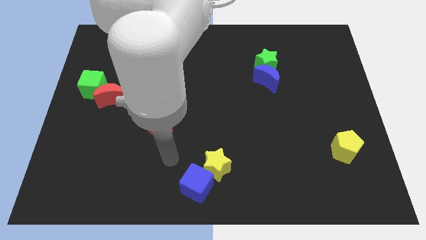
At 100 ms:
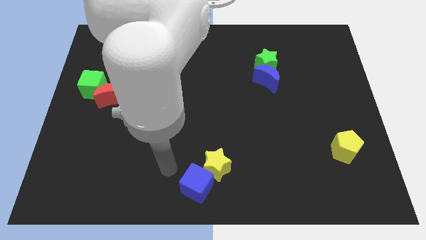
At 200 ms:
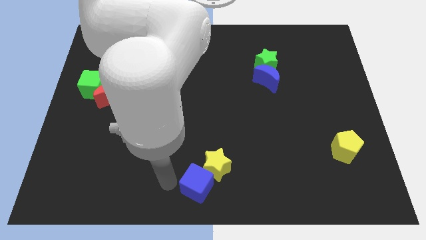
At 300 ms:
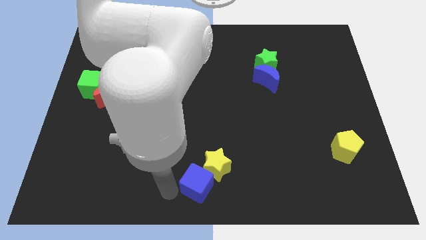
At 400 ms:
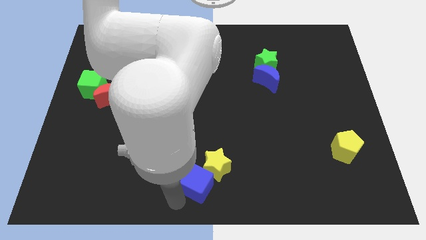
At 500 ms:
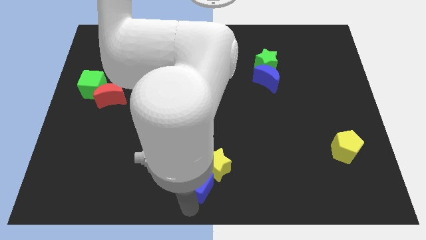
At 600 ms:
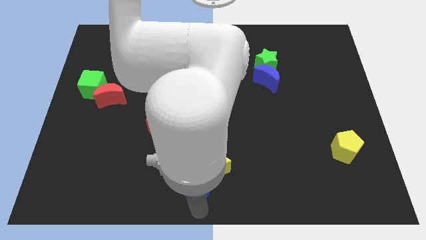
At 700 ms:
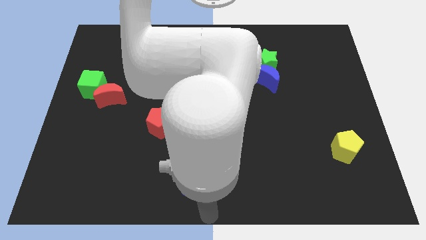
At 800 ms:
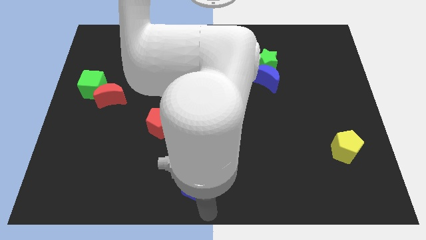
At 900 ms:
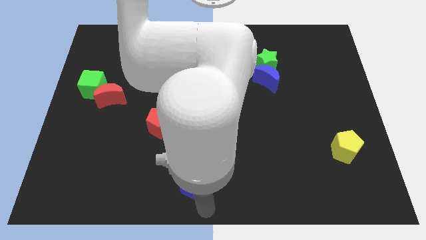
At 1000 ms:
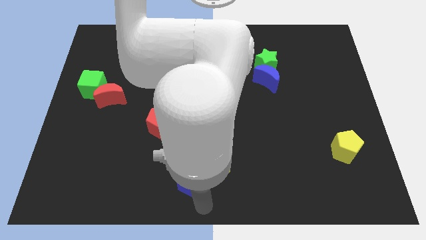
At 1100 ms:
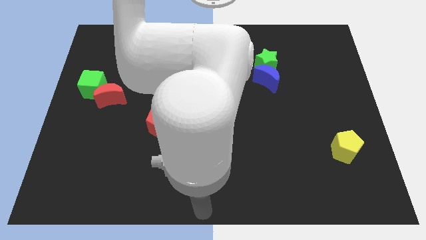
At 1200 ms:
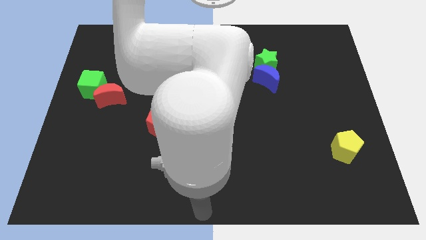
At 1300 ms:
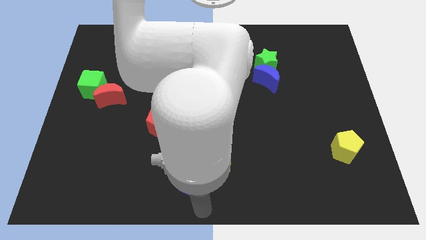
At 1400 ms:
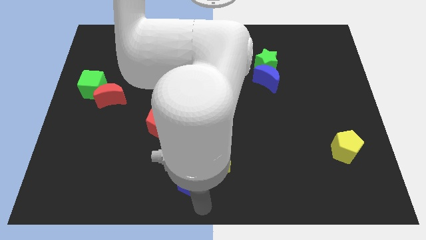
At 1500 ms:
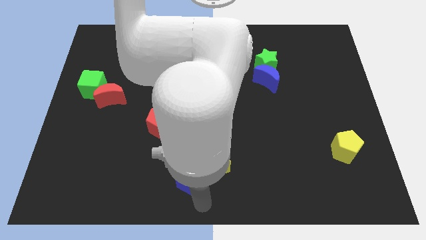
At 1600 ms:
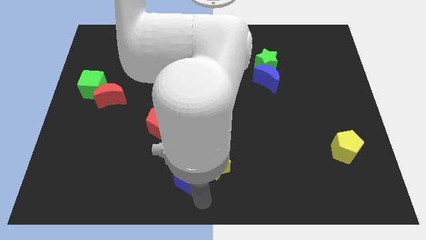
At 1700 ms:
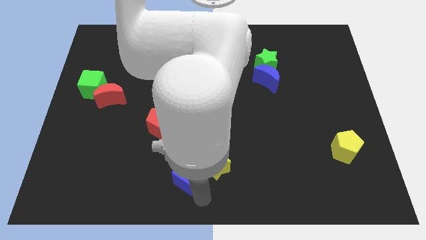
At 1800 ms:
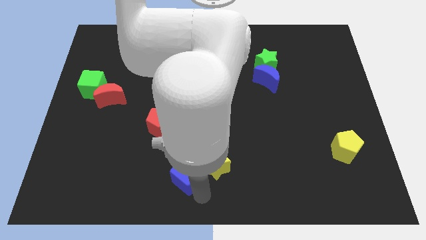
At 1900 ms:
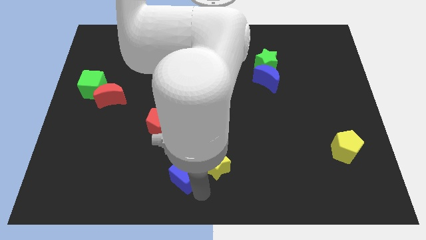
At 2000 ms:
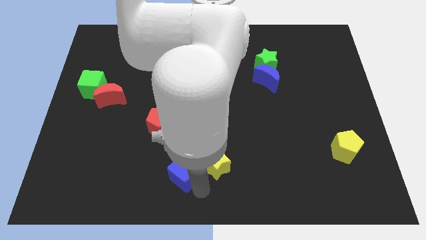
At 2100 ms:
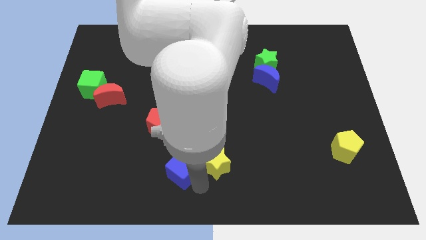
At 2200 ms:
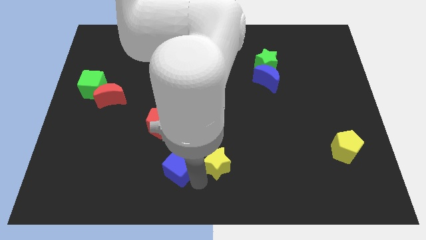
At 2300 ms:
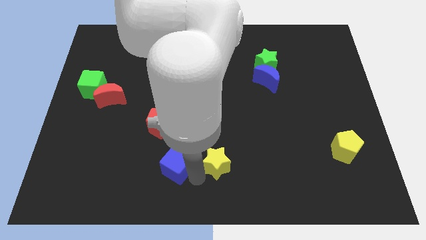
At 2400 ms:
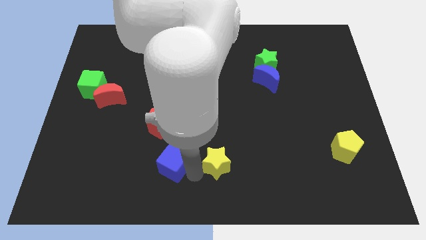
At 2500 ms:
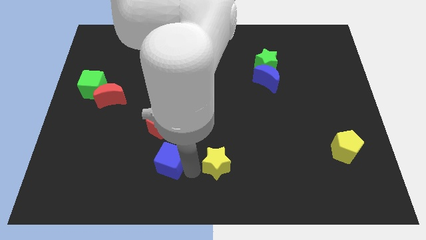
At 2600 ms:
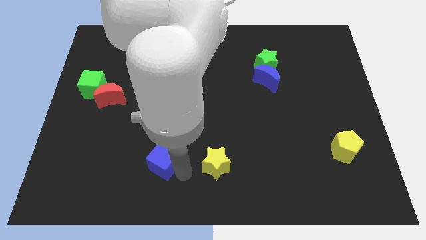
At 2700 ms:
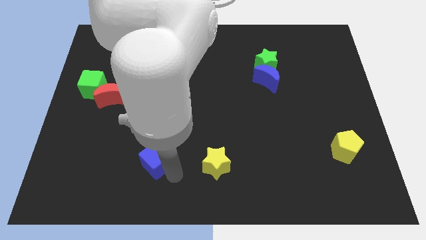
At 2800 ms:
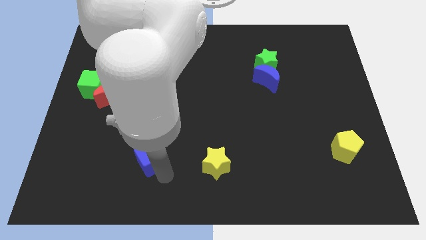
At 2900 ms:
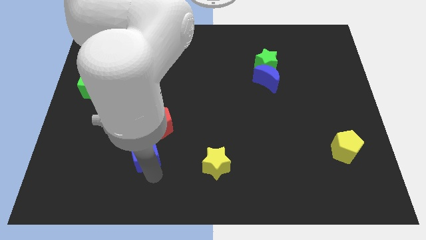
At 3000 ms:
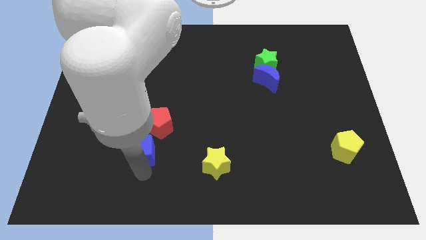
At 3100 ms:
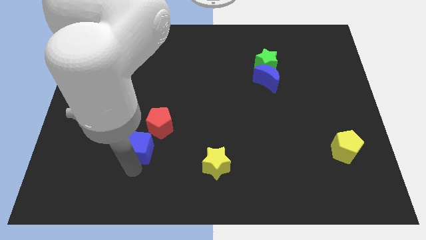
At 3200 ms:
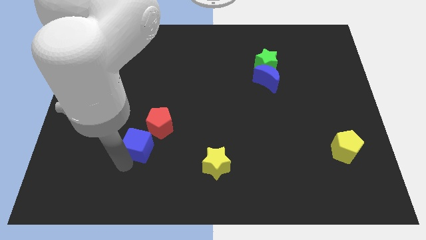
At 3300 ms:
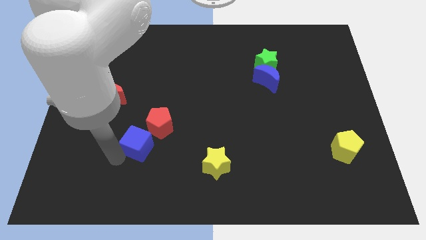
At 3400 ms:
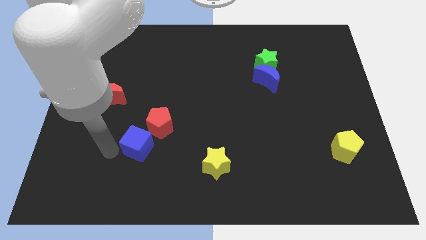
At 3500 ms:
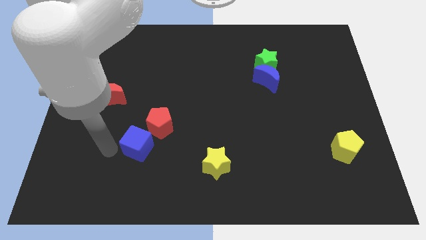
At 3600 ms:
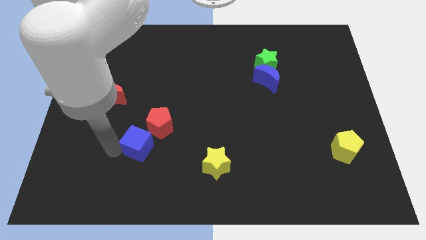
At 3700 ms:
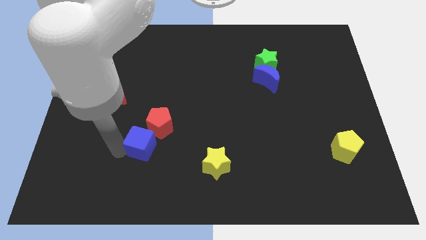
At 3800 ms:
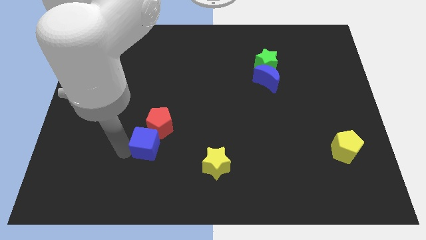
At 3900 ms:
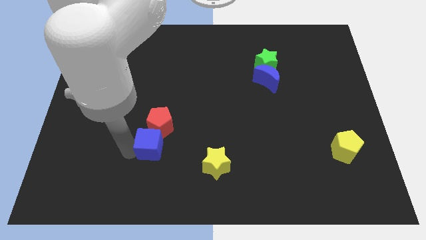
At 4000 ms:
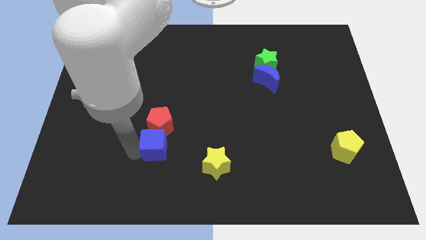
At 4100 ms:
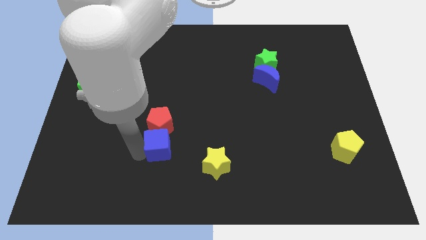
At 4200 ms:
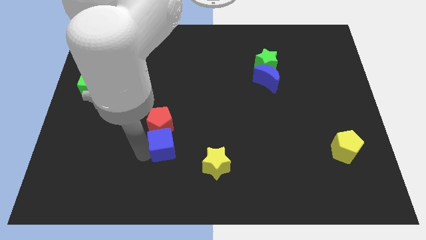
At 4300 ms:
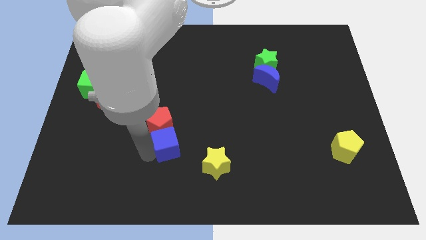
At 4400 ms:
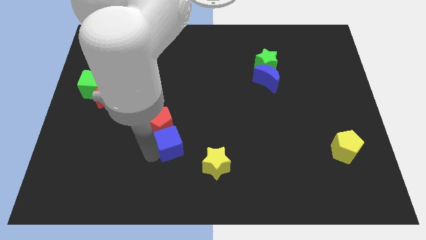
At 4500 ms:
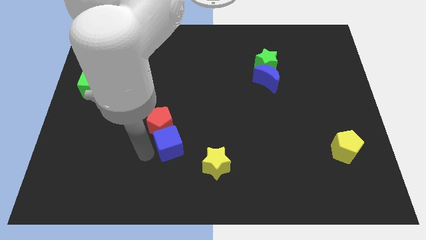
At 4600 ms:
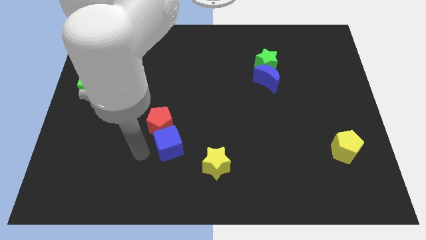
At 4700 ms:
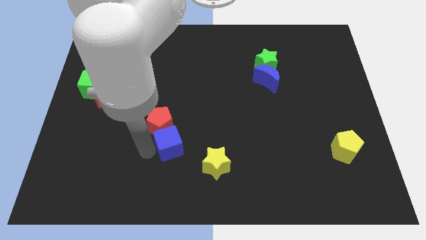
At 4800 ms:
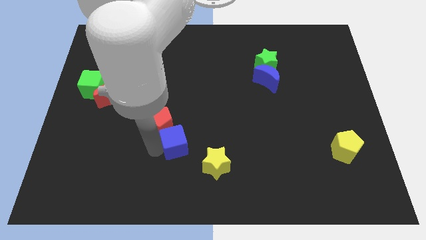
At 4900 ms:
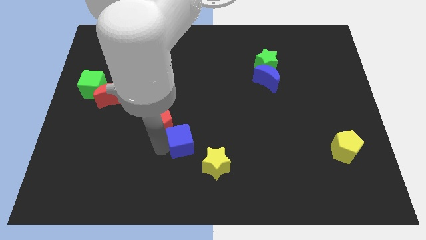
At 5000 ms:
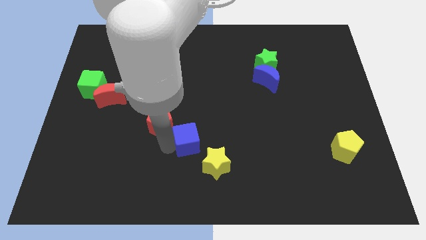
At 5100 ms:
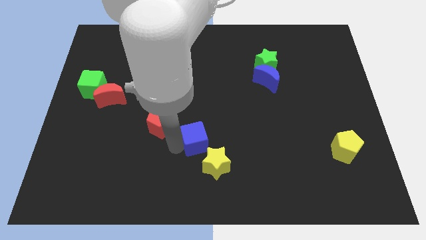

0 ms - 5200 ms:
move the blue cube to the middle of the board

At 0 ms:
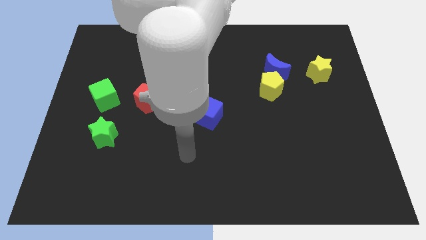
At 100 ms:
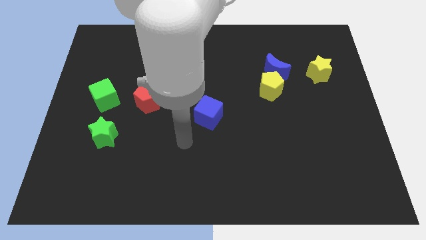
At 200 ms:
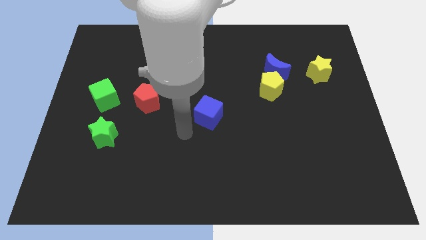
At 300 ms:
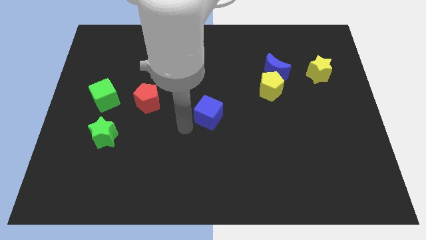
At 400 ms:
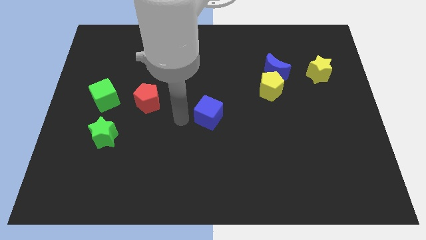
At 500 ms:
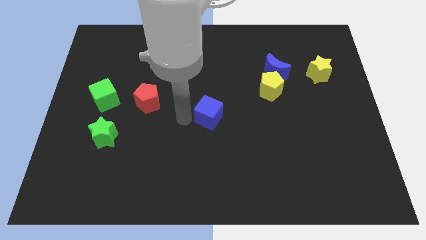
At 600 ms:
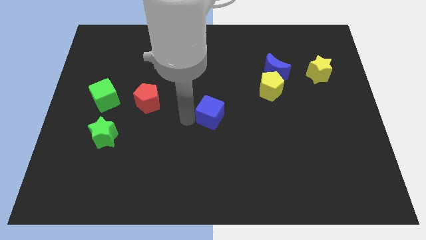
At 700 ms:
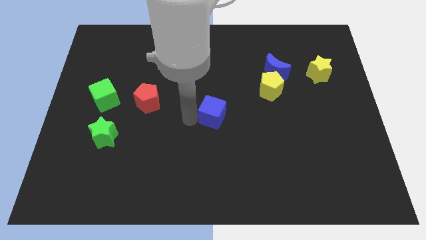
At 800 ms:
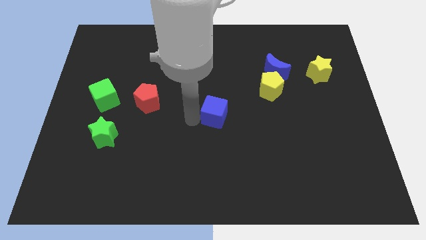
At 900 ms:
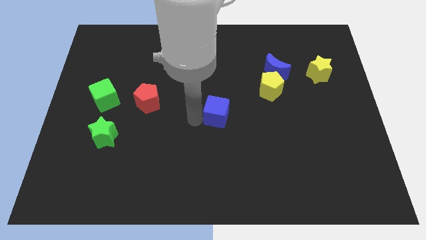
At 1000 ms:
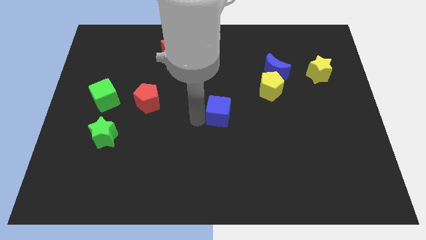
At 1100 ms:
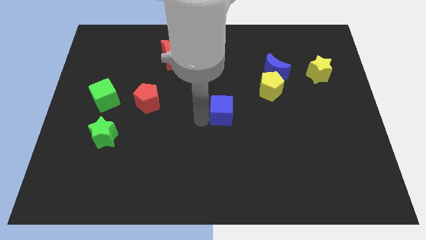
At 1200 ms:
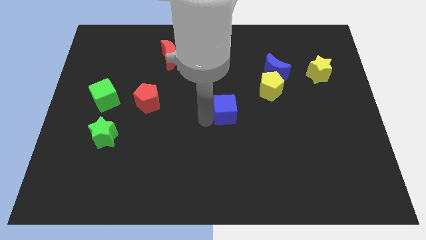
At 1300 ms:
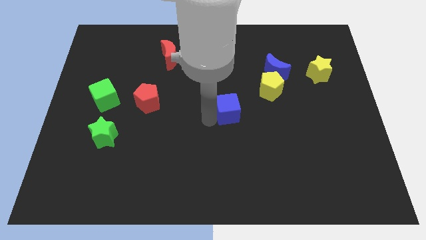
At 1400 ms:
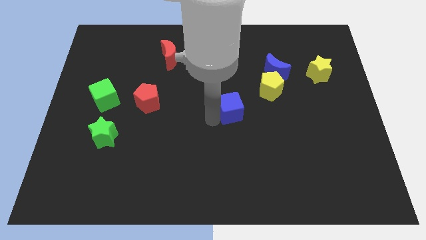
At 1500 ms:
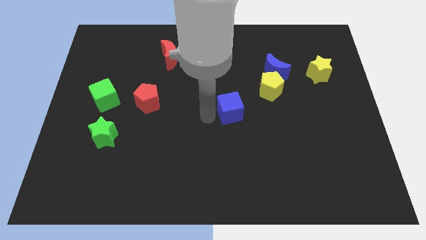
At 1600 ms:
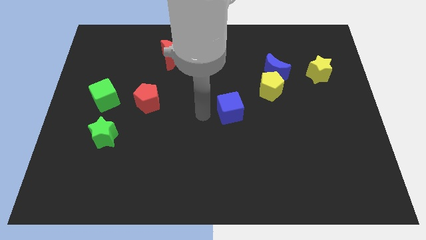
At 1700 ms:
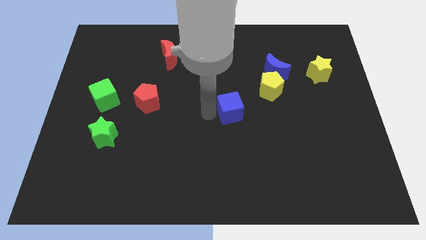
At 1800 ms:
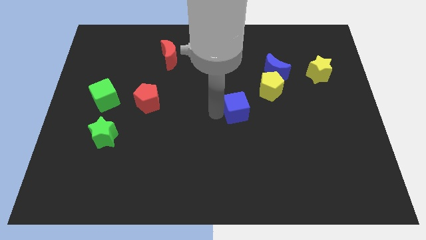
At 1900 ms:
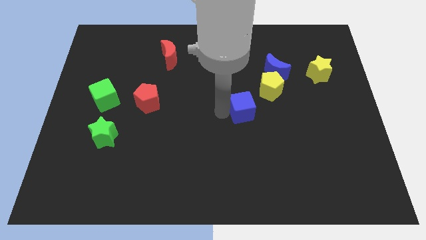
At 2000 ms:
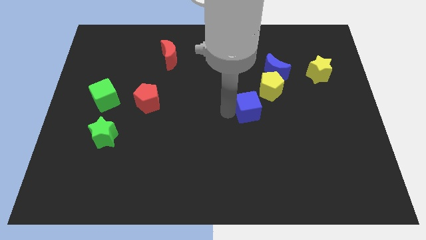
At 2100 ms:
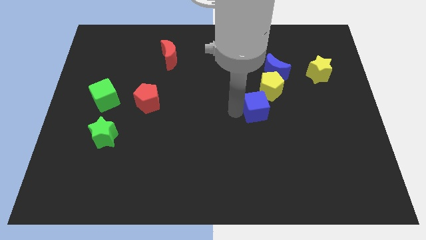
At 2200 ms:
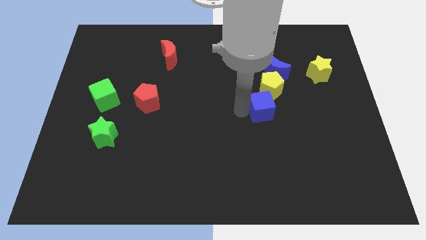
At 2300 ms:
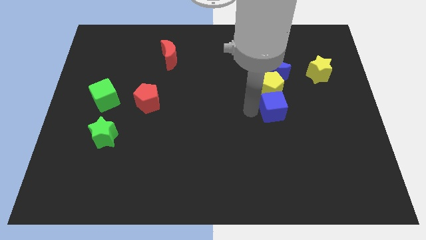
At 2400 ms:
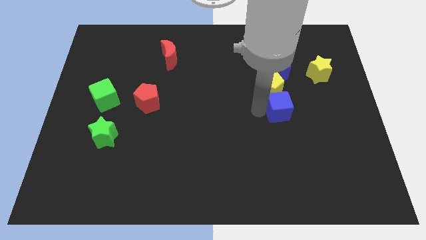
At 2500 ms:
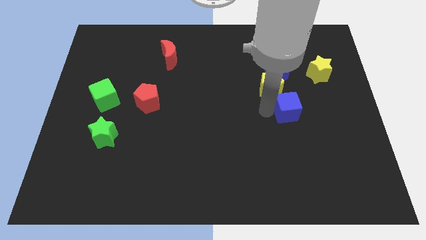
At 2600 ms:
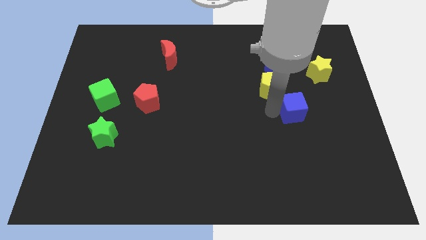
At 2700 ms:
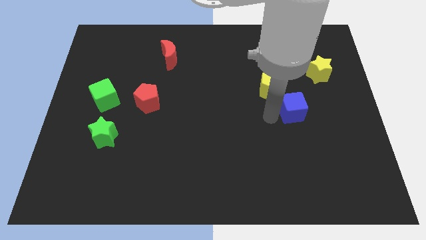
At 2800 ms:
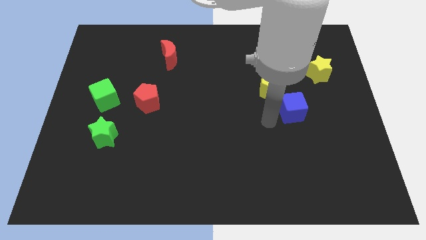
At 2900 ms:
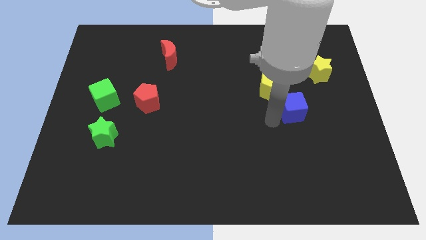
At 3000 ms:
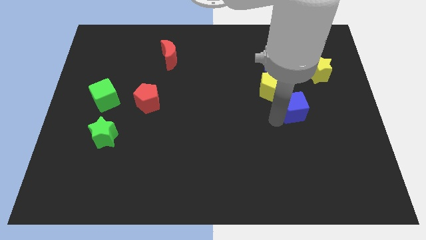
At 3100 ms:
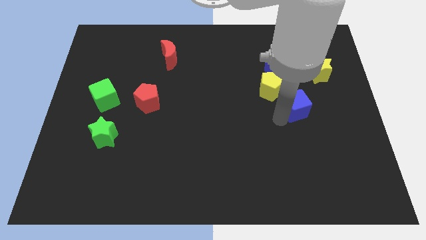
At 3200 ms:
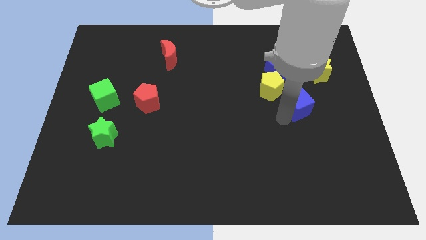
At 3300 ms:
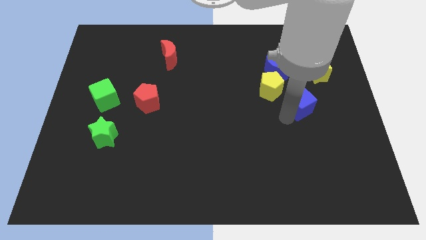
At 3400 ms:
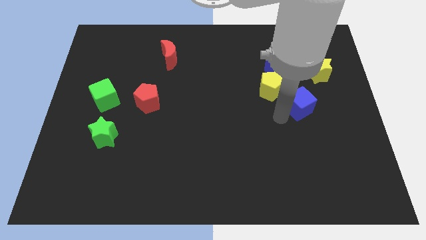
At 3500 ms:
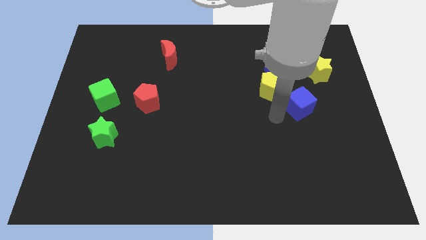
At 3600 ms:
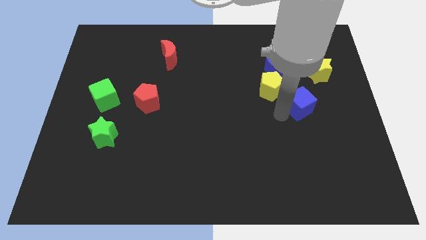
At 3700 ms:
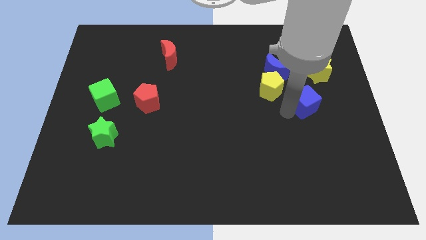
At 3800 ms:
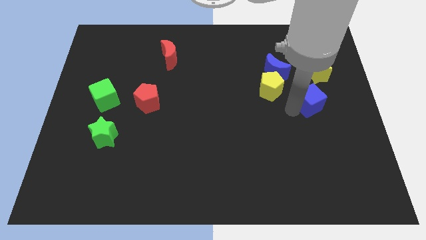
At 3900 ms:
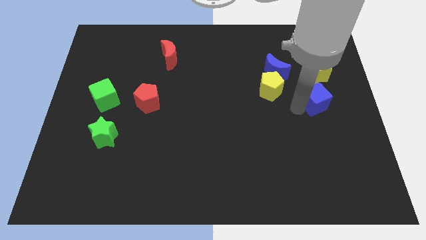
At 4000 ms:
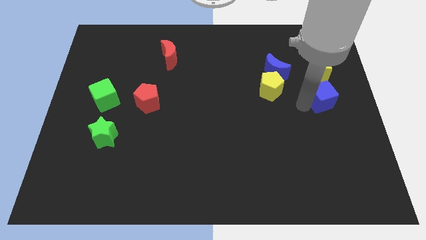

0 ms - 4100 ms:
put the blue cube to the right side
